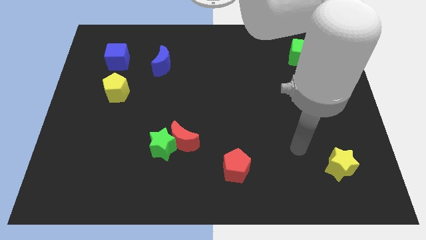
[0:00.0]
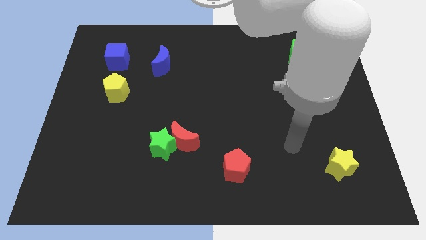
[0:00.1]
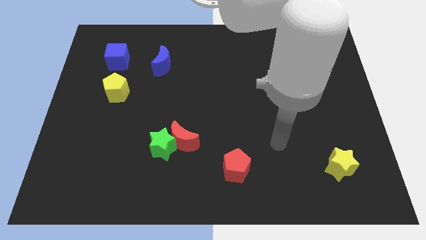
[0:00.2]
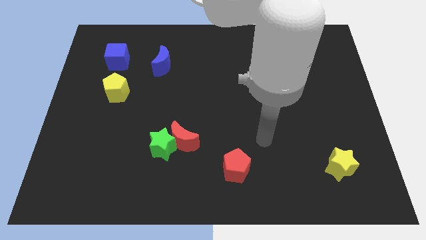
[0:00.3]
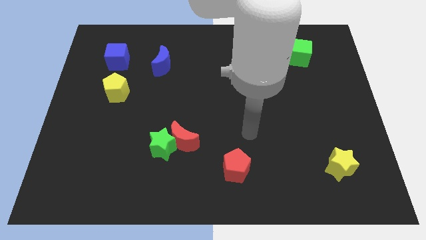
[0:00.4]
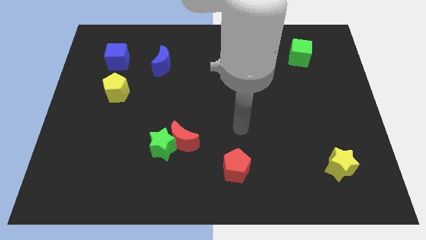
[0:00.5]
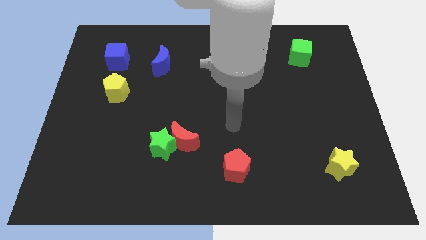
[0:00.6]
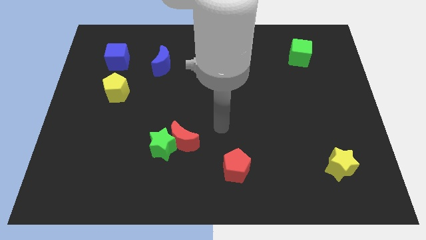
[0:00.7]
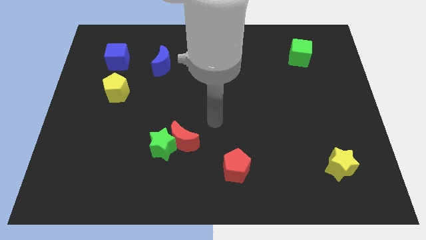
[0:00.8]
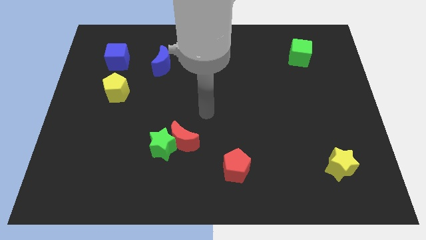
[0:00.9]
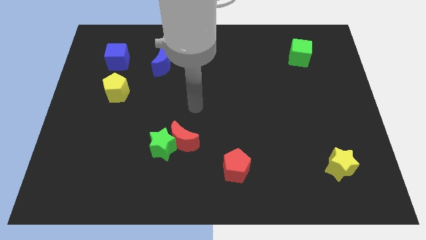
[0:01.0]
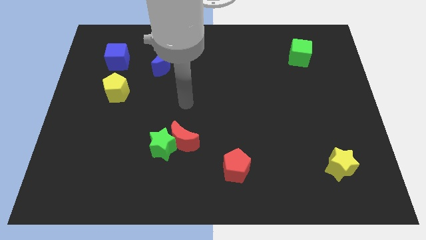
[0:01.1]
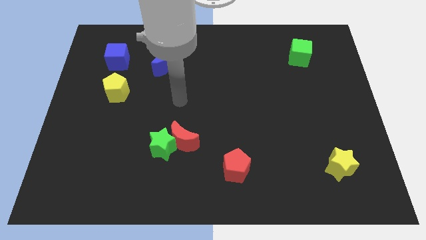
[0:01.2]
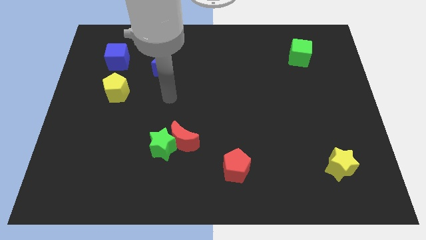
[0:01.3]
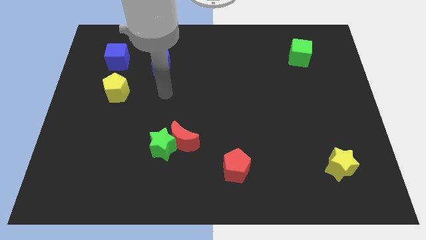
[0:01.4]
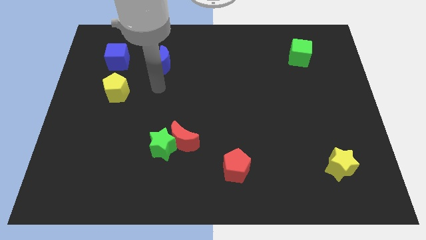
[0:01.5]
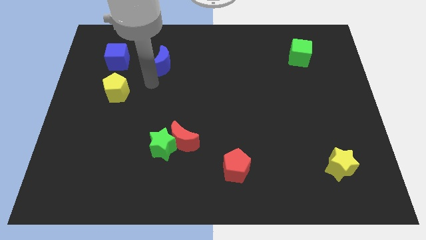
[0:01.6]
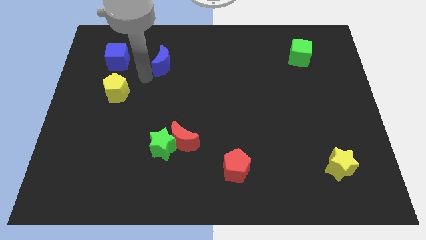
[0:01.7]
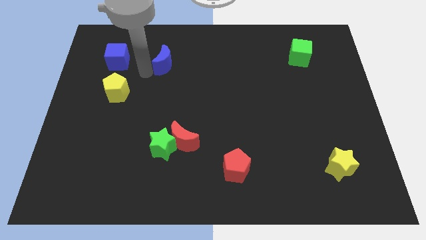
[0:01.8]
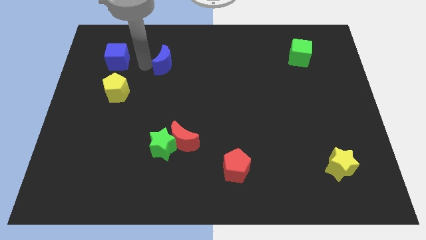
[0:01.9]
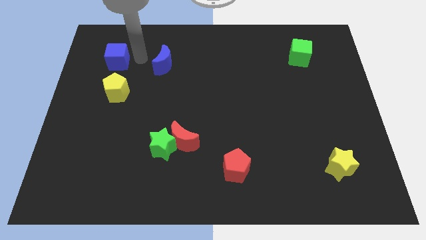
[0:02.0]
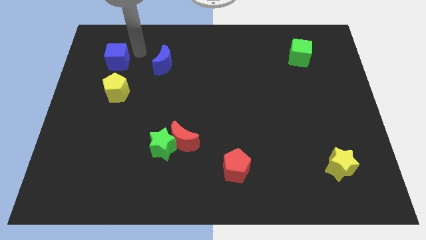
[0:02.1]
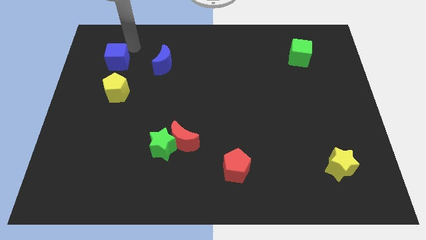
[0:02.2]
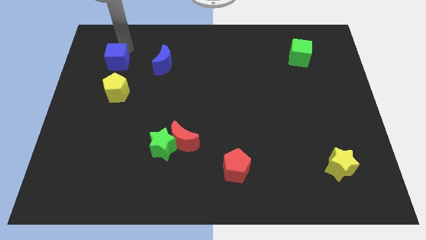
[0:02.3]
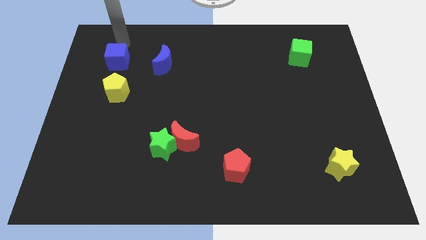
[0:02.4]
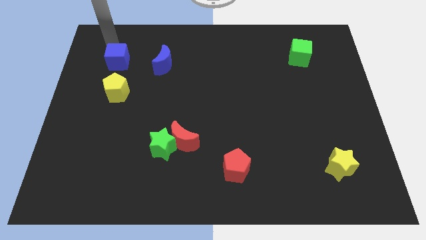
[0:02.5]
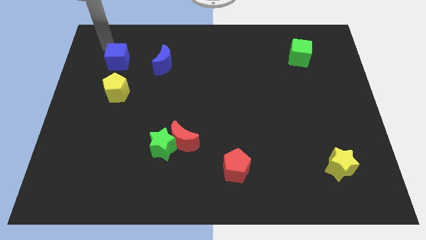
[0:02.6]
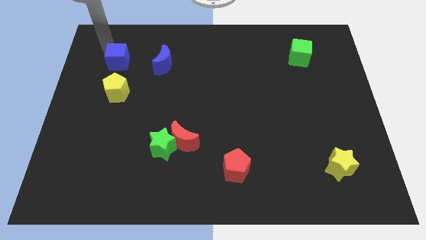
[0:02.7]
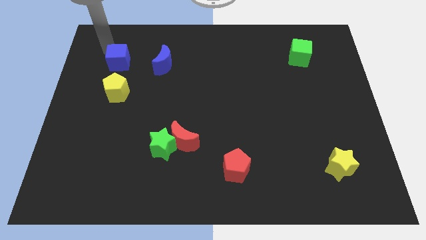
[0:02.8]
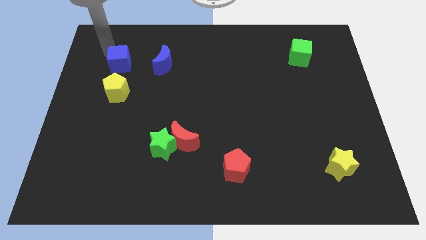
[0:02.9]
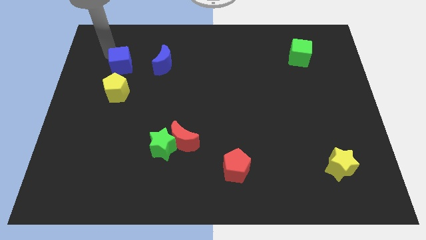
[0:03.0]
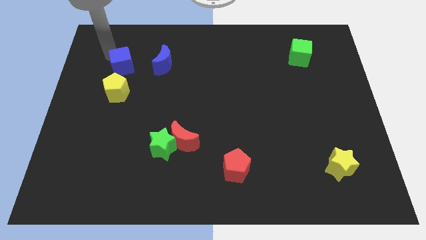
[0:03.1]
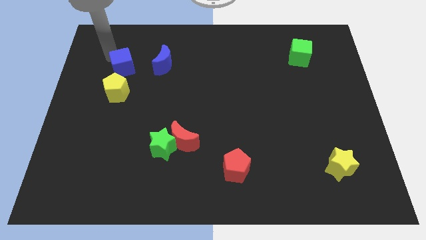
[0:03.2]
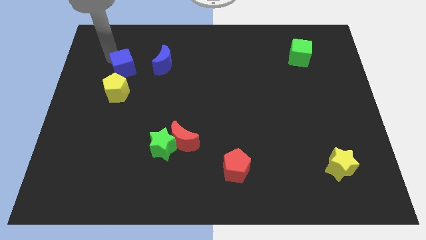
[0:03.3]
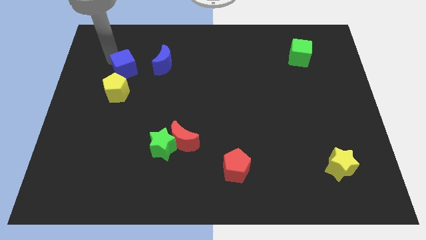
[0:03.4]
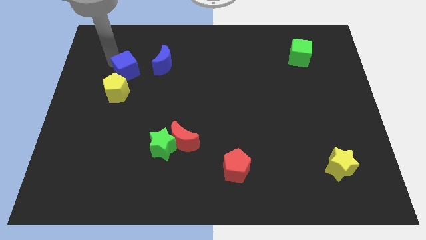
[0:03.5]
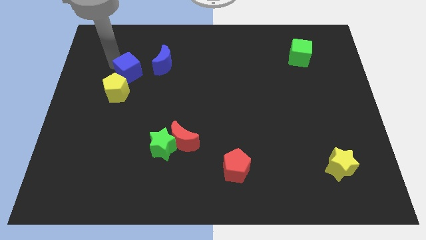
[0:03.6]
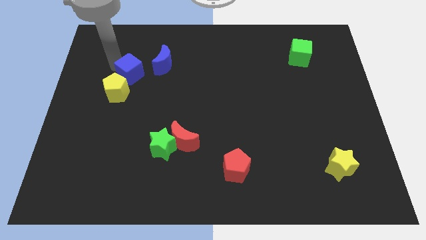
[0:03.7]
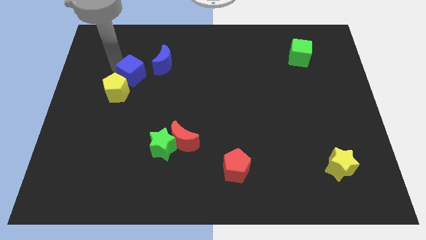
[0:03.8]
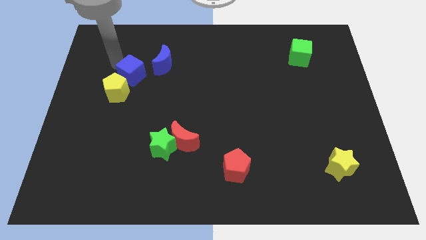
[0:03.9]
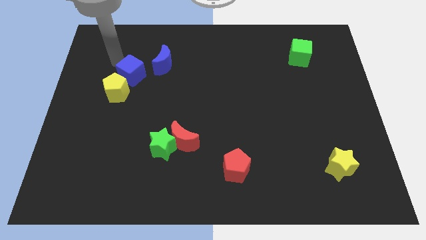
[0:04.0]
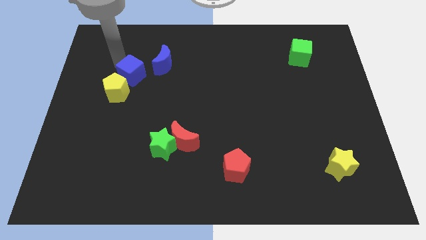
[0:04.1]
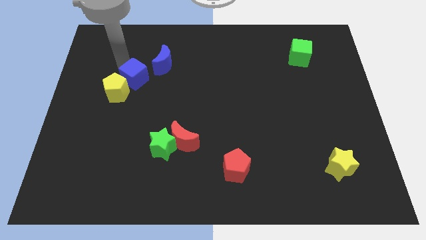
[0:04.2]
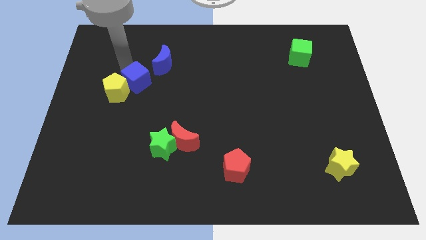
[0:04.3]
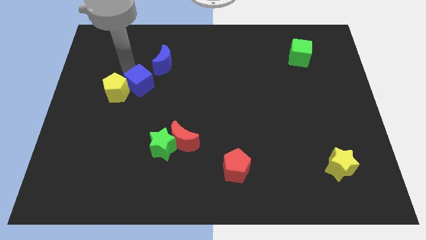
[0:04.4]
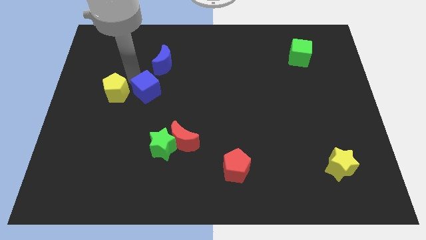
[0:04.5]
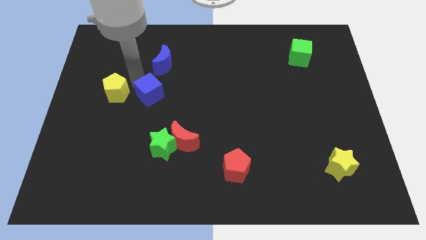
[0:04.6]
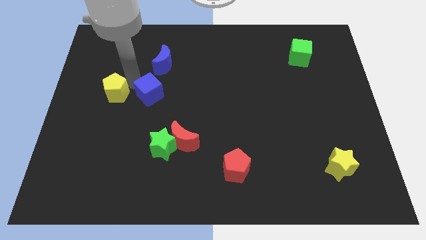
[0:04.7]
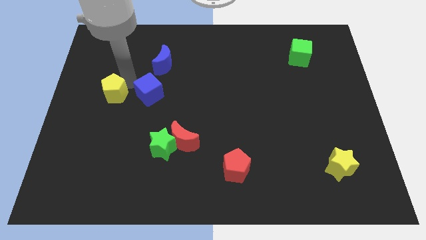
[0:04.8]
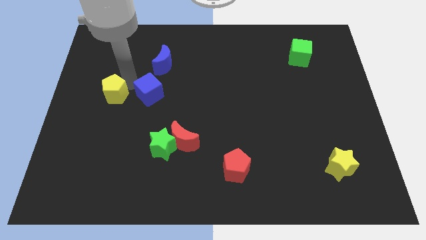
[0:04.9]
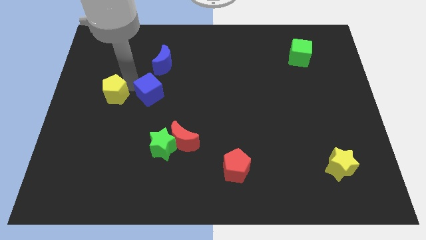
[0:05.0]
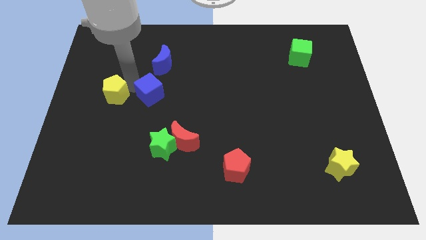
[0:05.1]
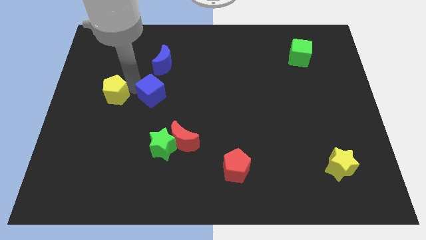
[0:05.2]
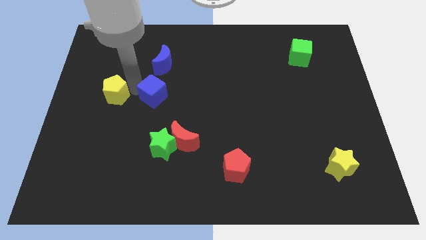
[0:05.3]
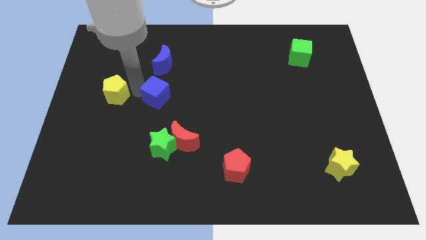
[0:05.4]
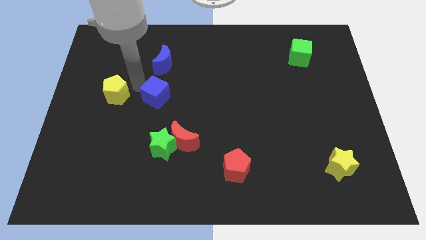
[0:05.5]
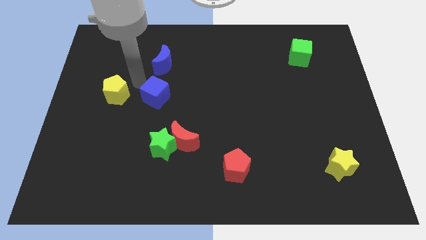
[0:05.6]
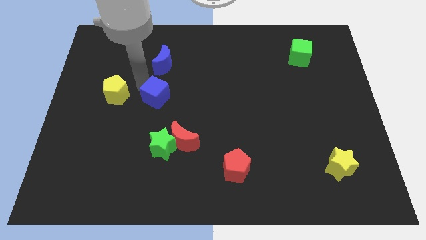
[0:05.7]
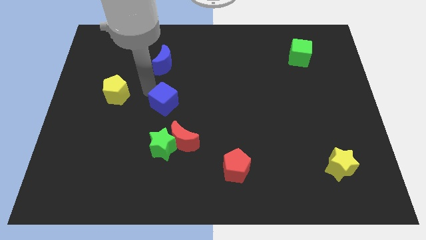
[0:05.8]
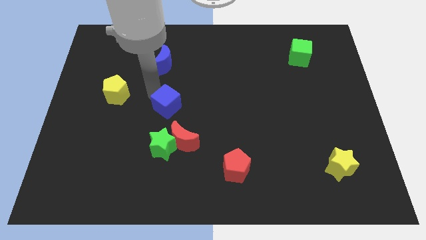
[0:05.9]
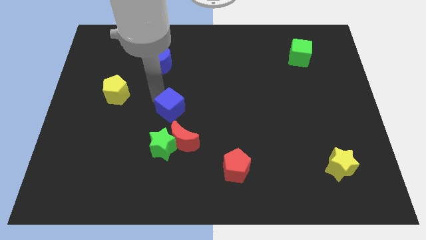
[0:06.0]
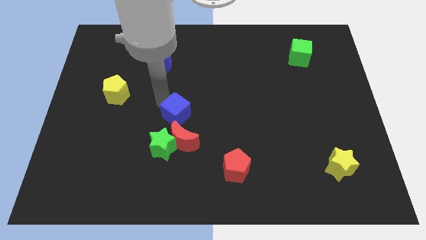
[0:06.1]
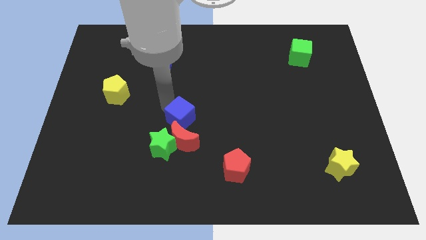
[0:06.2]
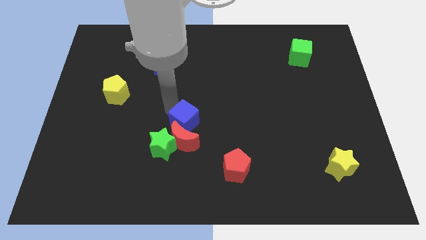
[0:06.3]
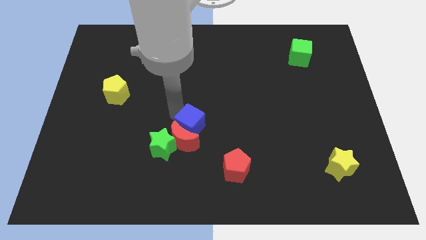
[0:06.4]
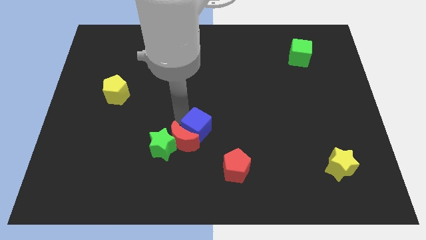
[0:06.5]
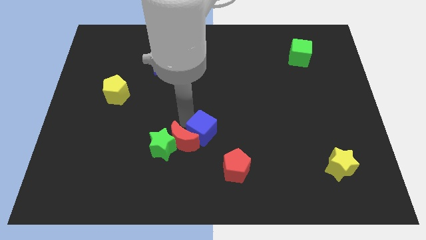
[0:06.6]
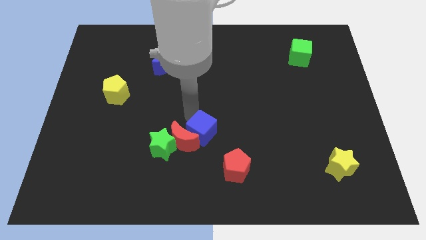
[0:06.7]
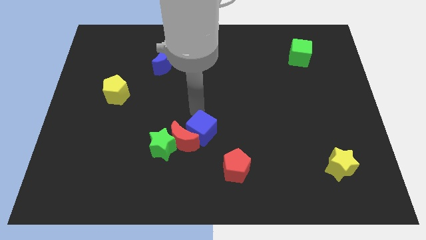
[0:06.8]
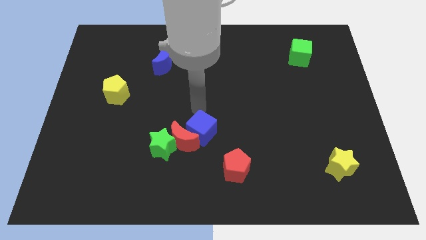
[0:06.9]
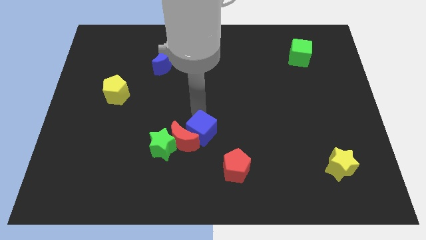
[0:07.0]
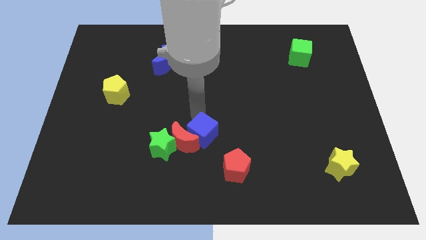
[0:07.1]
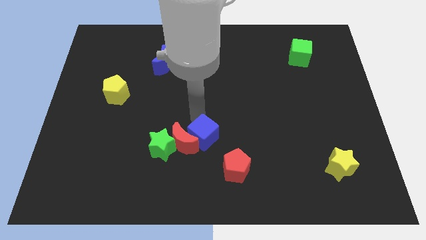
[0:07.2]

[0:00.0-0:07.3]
put the blue cube diagonally down and to the right of the red moon
